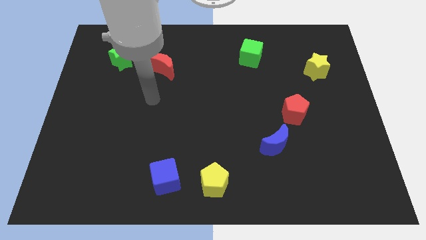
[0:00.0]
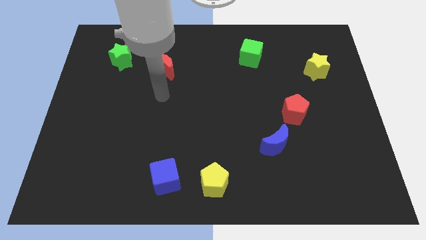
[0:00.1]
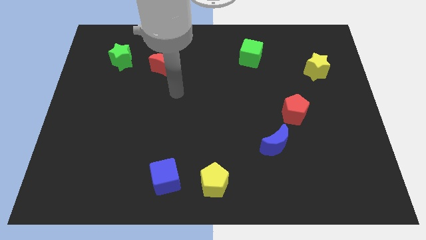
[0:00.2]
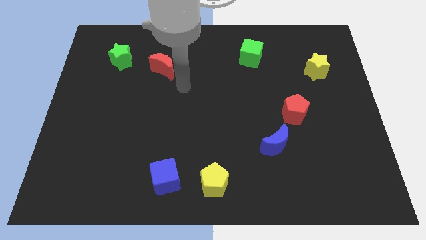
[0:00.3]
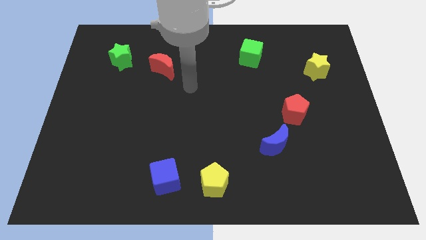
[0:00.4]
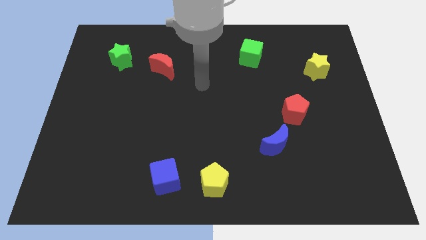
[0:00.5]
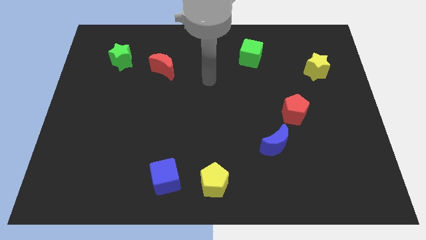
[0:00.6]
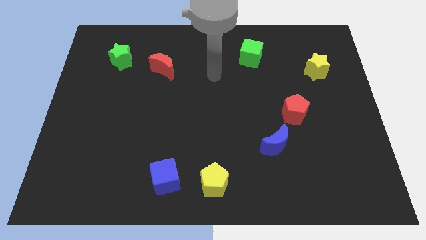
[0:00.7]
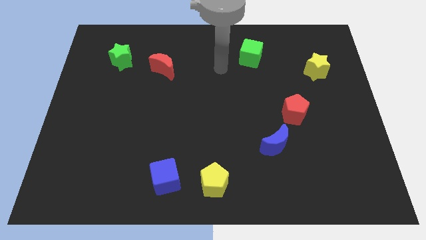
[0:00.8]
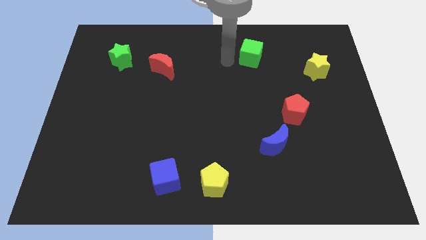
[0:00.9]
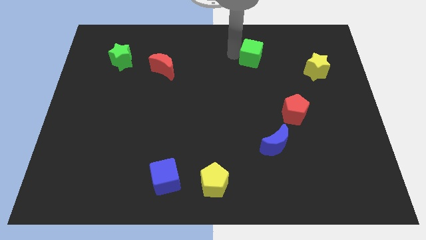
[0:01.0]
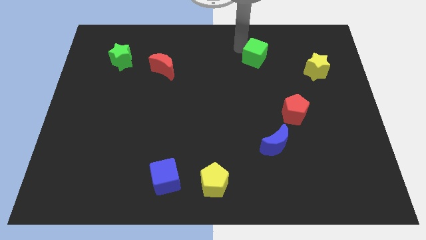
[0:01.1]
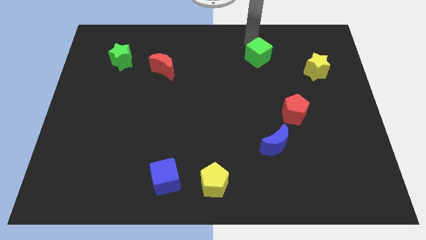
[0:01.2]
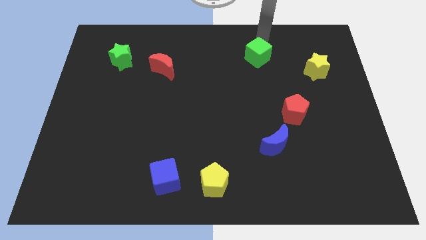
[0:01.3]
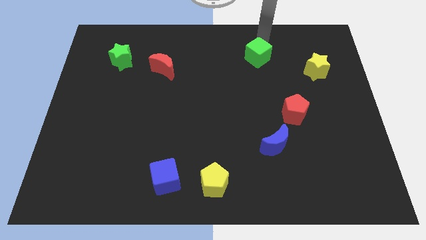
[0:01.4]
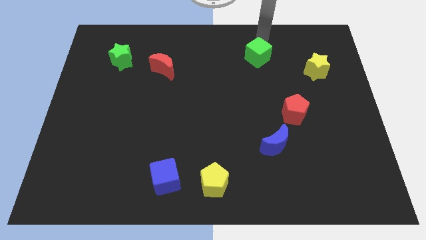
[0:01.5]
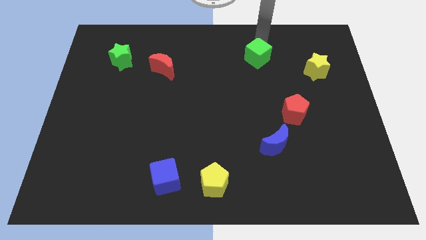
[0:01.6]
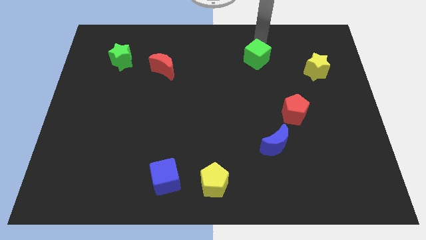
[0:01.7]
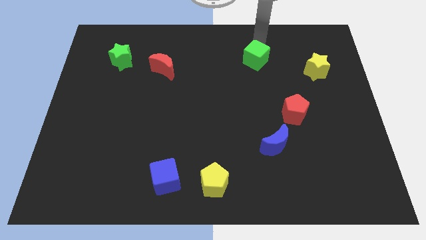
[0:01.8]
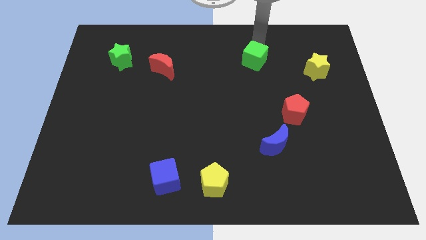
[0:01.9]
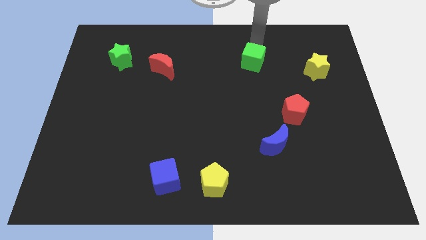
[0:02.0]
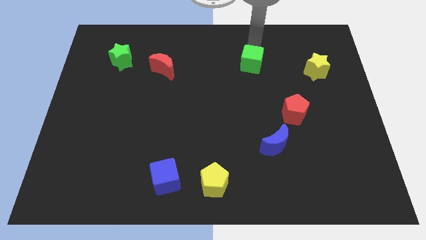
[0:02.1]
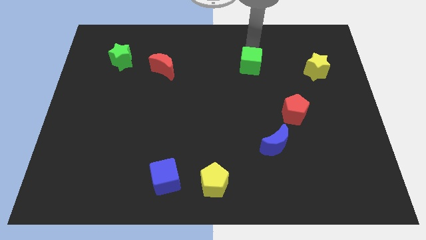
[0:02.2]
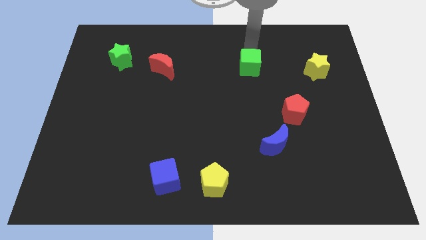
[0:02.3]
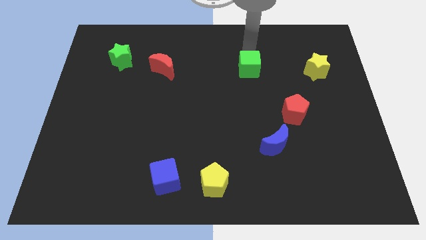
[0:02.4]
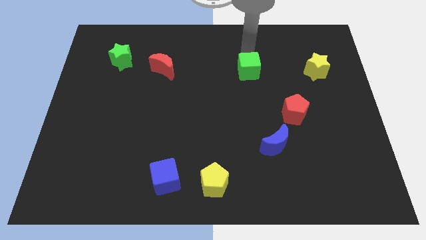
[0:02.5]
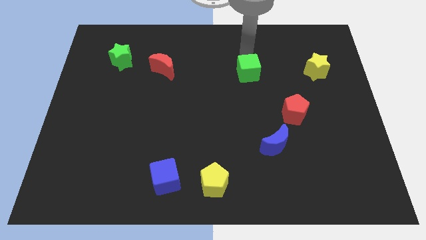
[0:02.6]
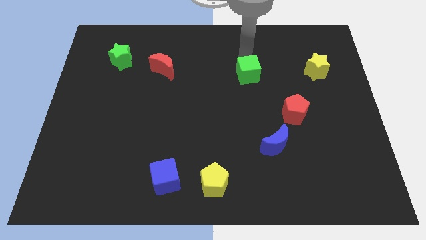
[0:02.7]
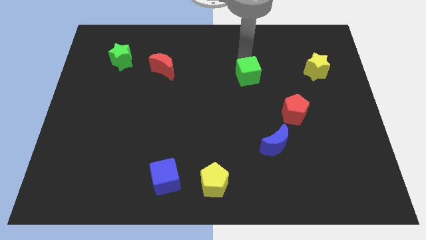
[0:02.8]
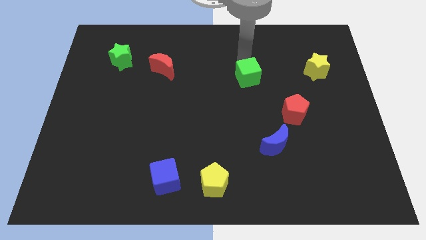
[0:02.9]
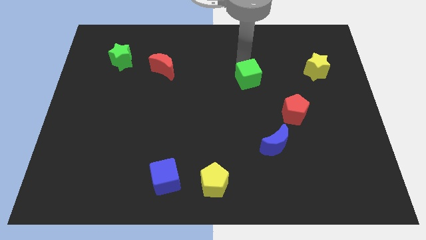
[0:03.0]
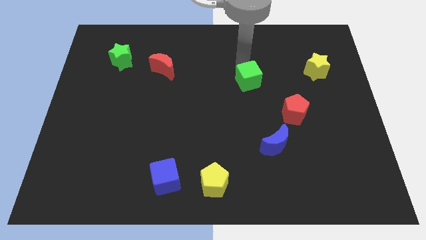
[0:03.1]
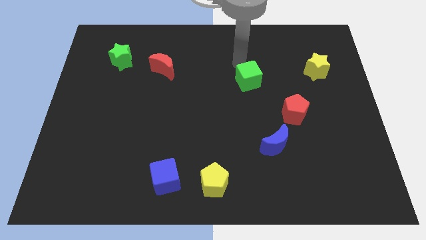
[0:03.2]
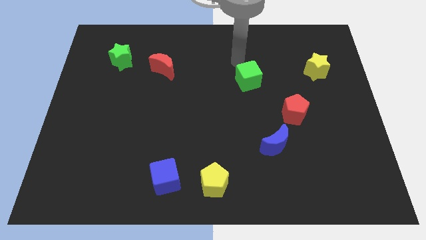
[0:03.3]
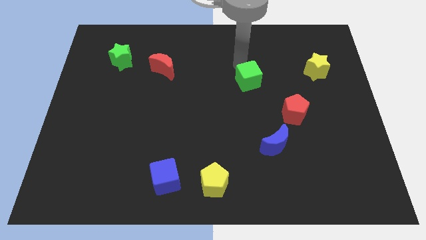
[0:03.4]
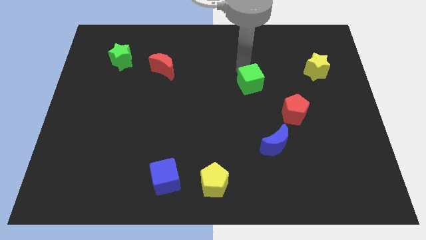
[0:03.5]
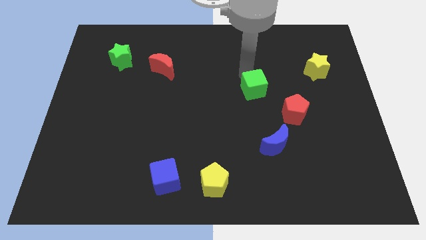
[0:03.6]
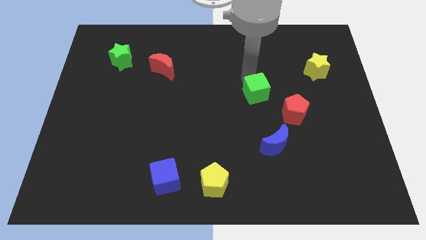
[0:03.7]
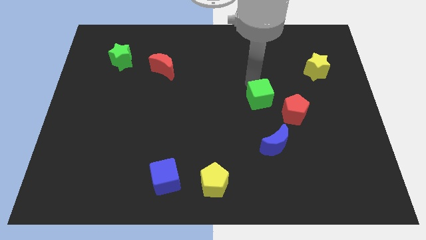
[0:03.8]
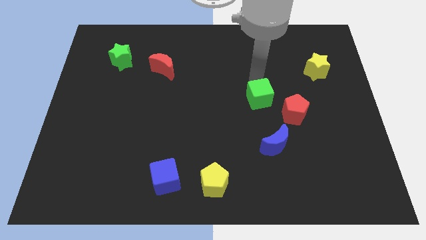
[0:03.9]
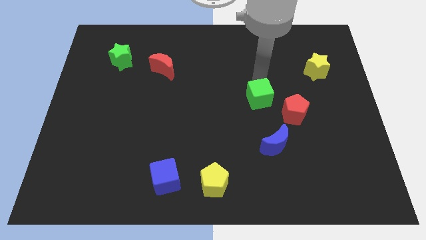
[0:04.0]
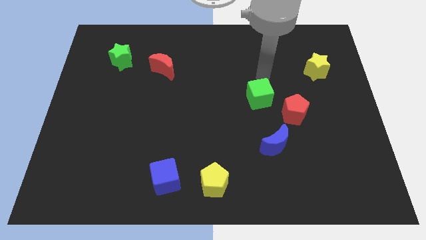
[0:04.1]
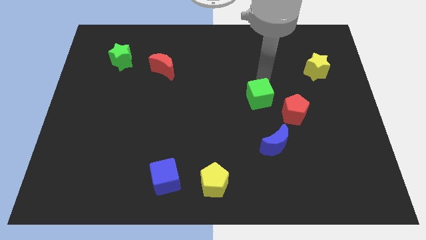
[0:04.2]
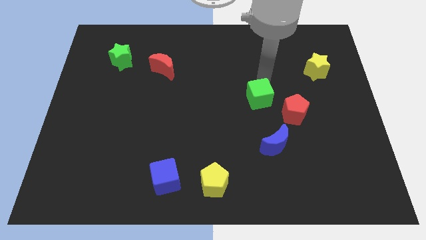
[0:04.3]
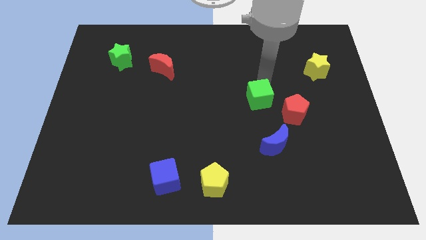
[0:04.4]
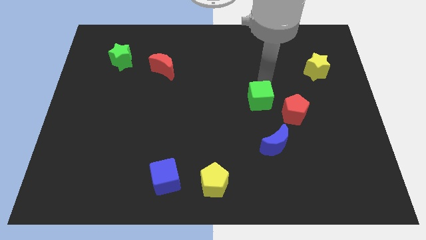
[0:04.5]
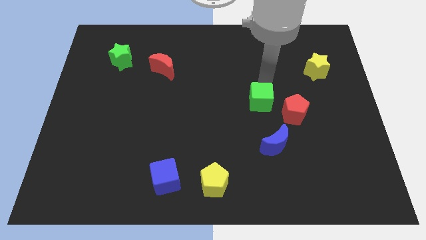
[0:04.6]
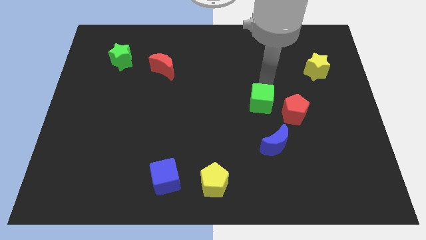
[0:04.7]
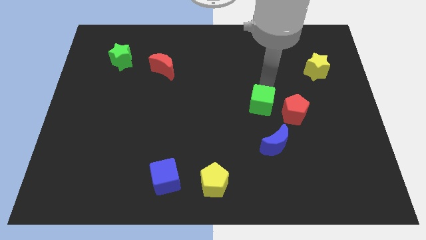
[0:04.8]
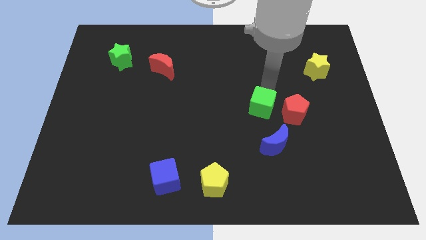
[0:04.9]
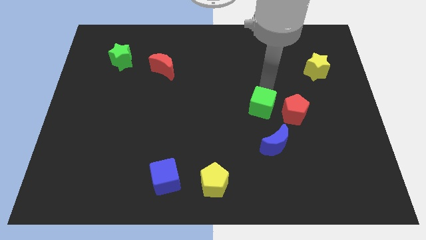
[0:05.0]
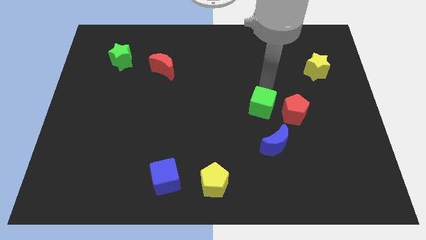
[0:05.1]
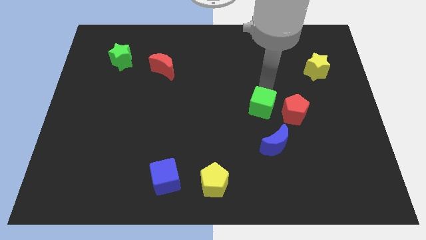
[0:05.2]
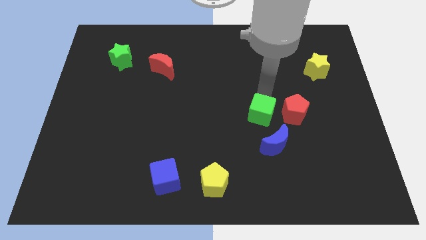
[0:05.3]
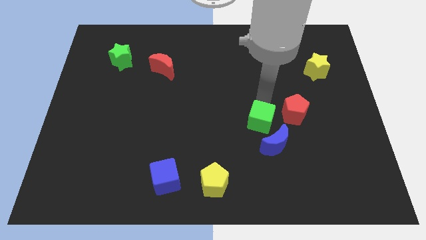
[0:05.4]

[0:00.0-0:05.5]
move the green cube downwards

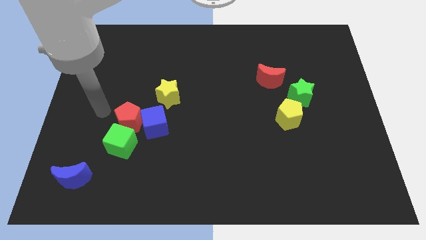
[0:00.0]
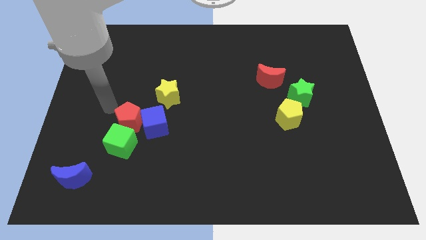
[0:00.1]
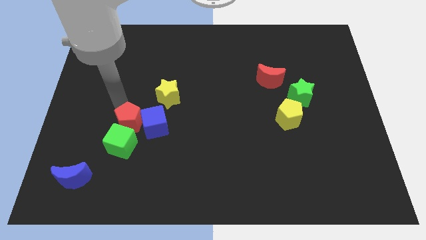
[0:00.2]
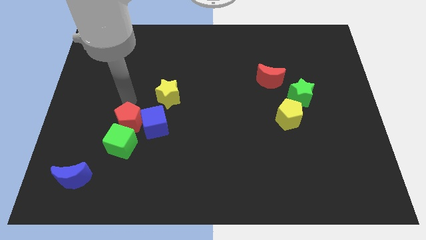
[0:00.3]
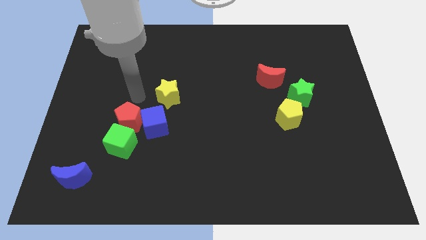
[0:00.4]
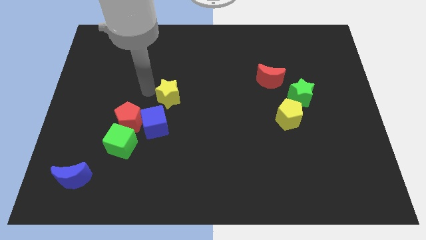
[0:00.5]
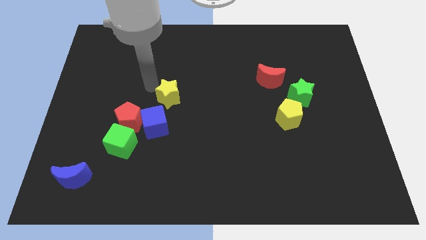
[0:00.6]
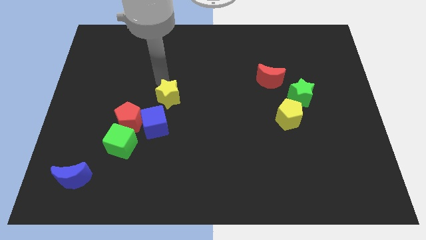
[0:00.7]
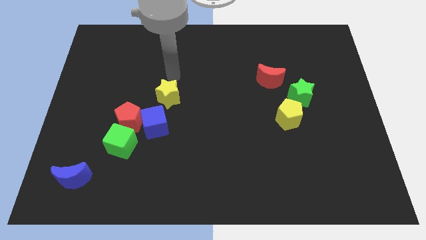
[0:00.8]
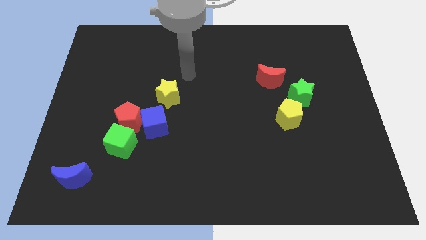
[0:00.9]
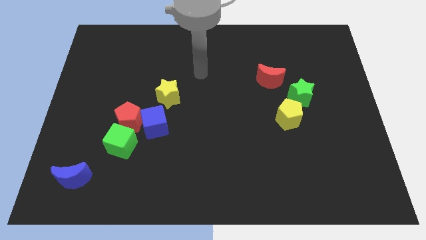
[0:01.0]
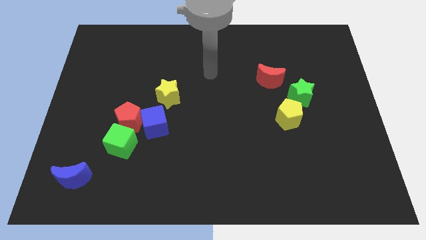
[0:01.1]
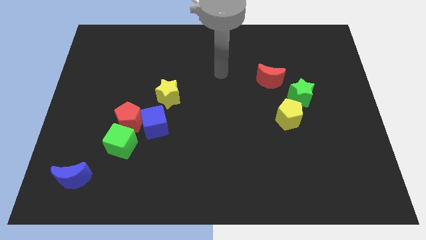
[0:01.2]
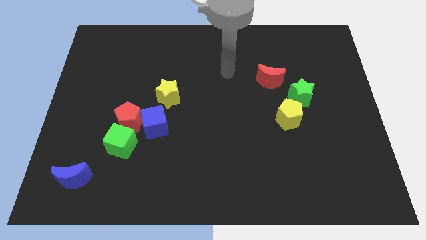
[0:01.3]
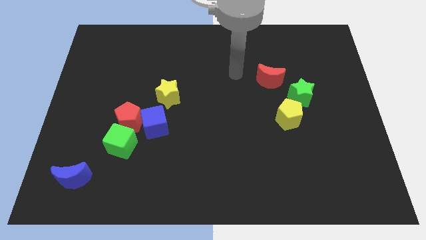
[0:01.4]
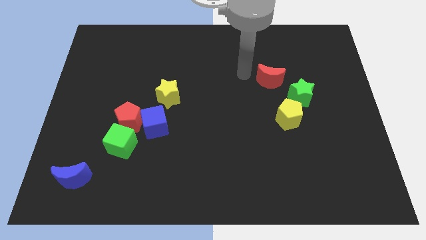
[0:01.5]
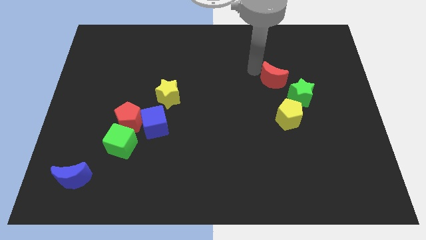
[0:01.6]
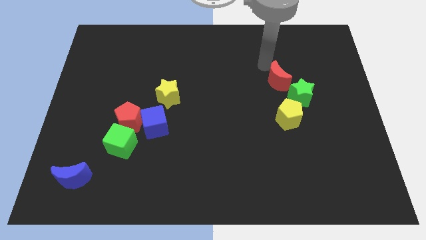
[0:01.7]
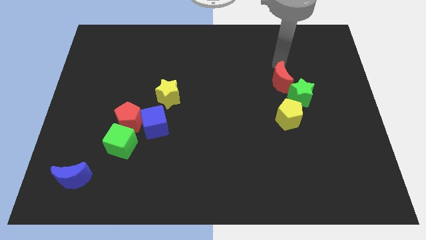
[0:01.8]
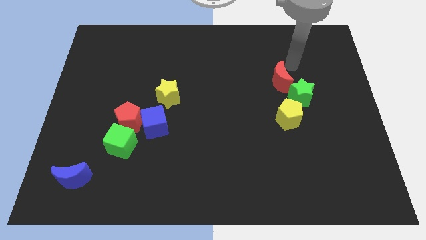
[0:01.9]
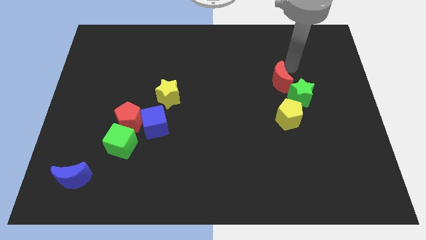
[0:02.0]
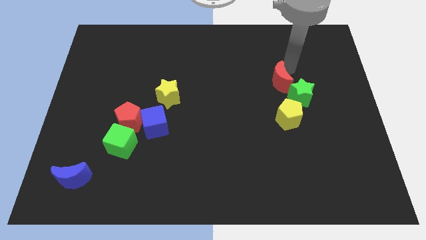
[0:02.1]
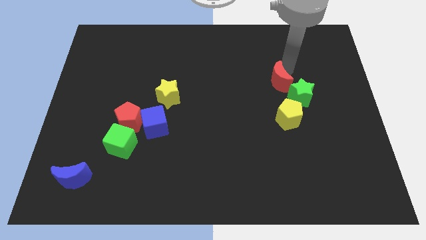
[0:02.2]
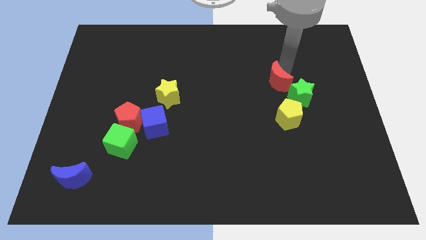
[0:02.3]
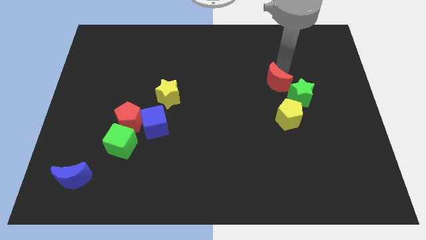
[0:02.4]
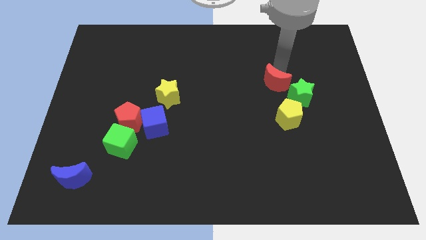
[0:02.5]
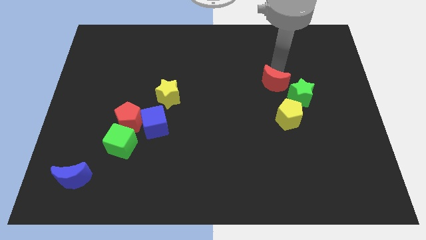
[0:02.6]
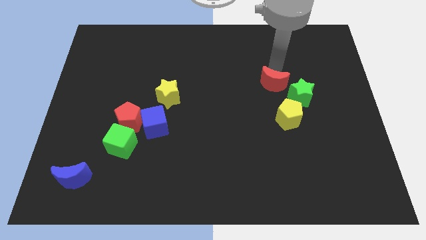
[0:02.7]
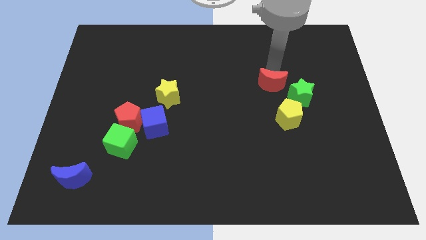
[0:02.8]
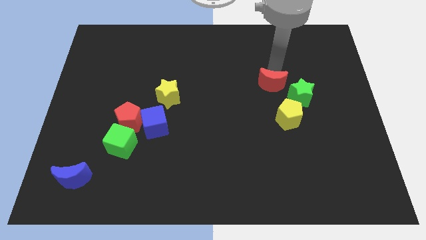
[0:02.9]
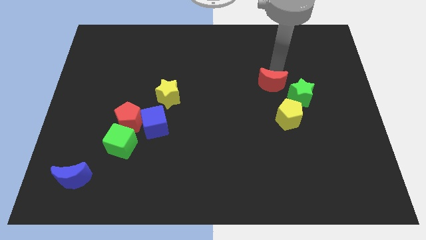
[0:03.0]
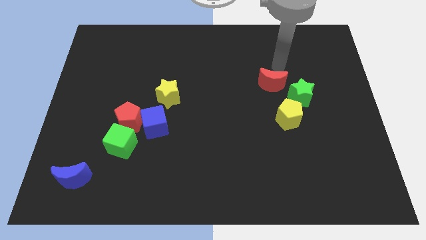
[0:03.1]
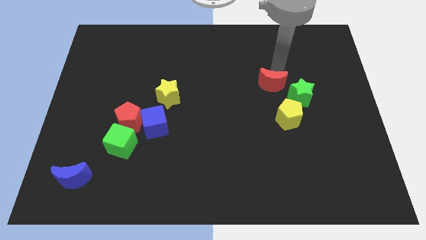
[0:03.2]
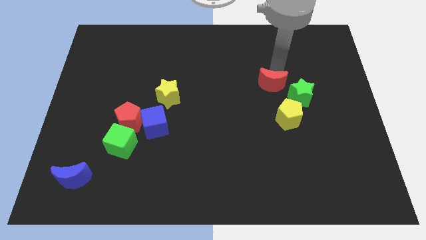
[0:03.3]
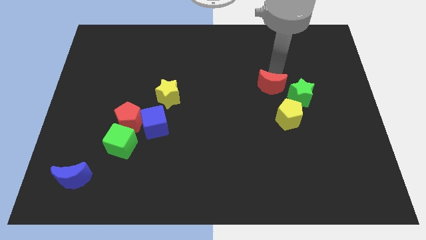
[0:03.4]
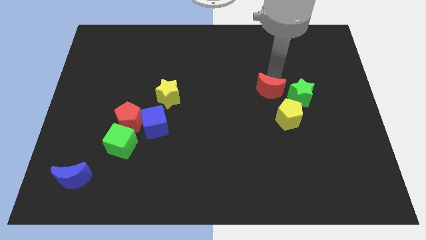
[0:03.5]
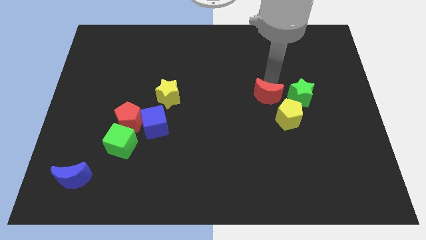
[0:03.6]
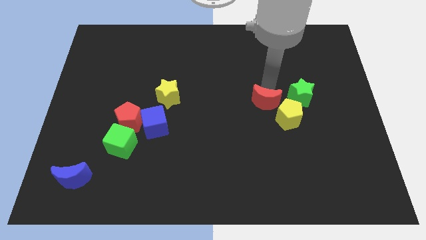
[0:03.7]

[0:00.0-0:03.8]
slightly push the red moon downwards
